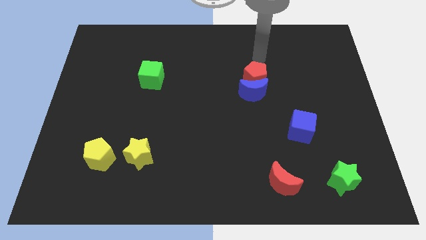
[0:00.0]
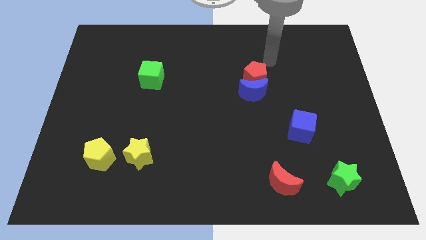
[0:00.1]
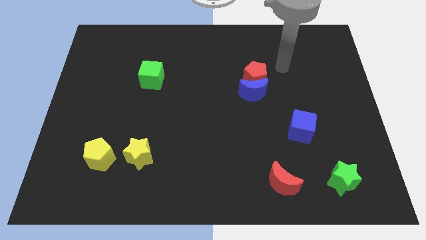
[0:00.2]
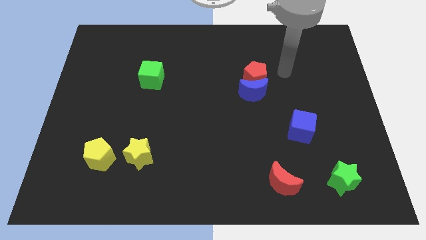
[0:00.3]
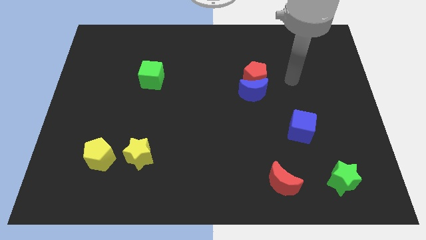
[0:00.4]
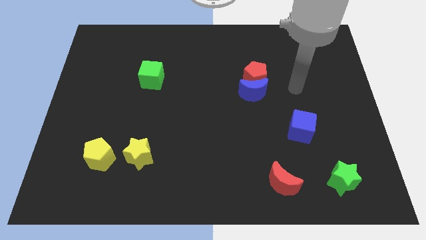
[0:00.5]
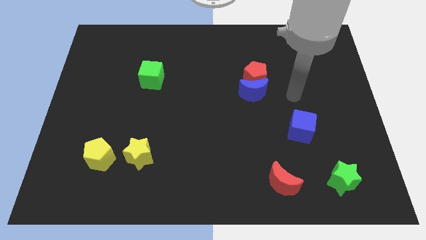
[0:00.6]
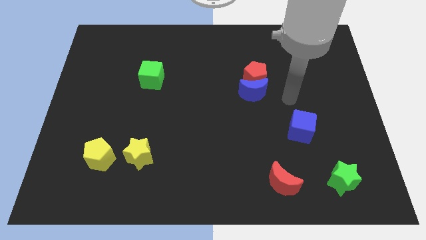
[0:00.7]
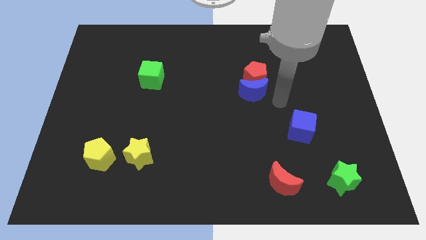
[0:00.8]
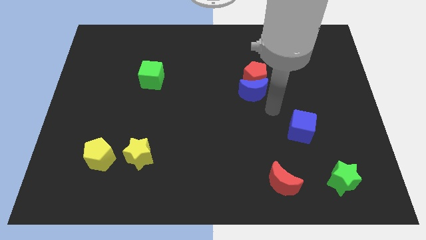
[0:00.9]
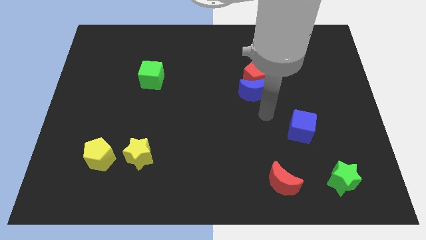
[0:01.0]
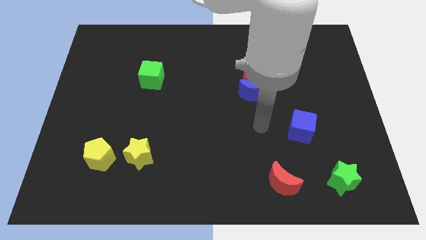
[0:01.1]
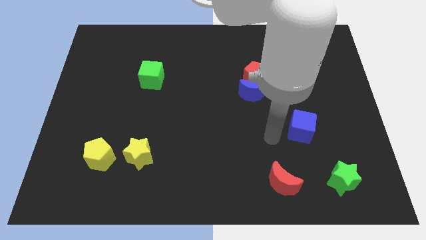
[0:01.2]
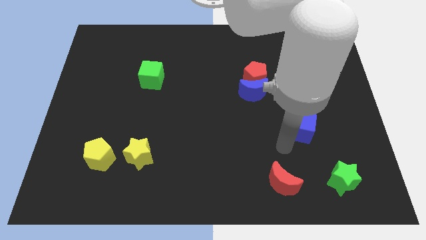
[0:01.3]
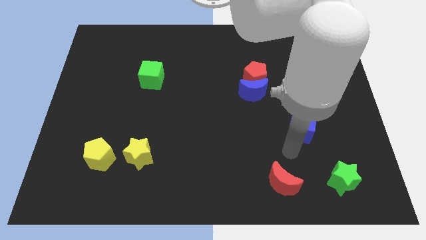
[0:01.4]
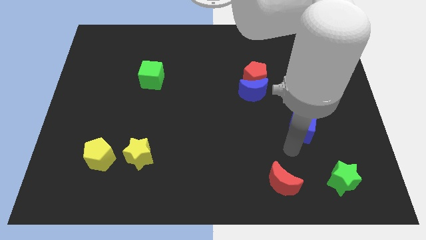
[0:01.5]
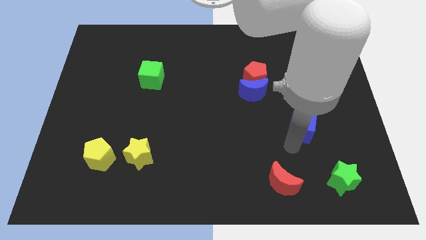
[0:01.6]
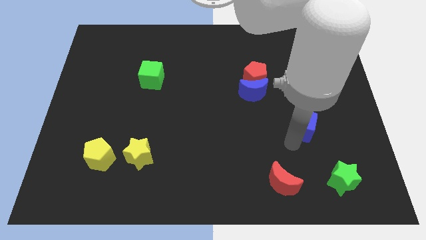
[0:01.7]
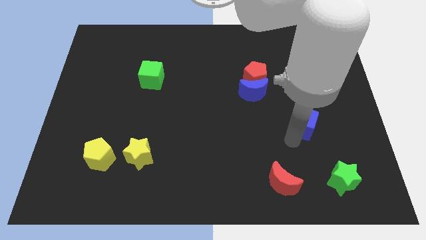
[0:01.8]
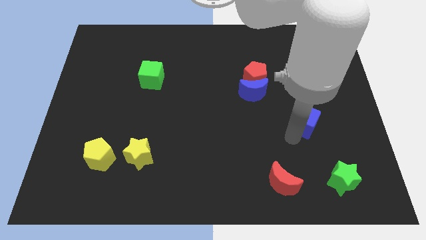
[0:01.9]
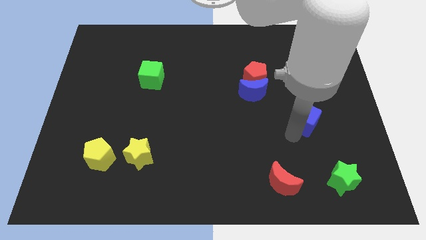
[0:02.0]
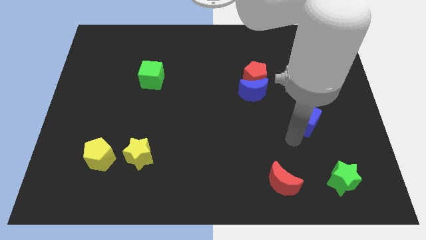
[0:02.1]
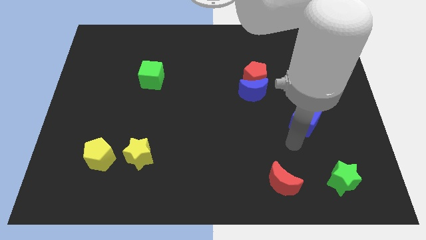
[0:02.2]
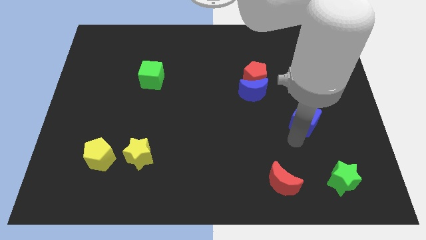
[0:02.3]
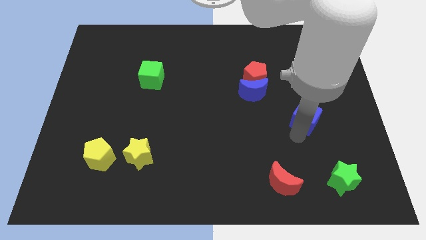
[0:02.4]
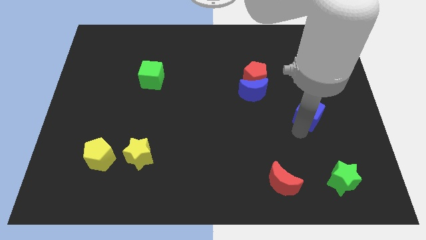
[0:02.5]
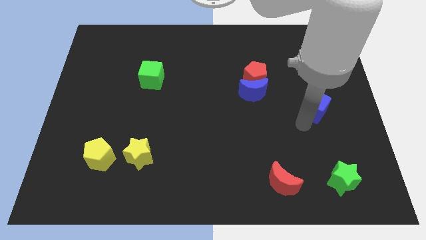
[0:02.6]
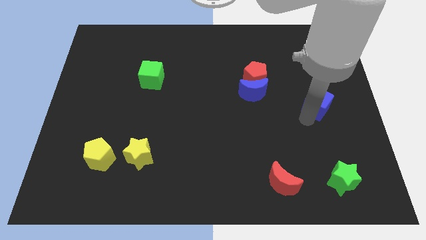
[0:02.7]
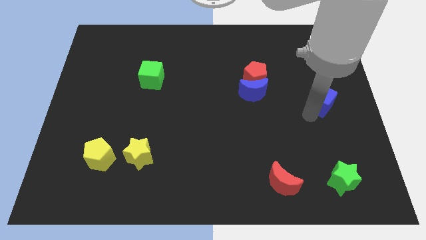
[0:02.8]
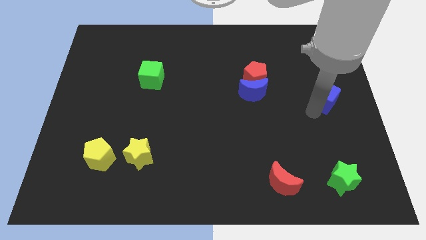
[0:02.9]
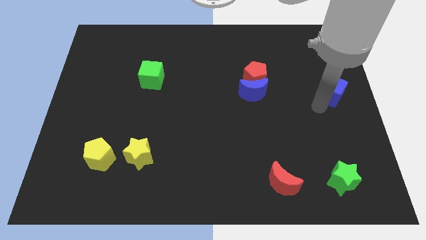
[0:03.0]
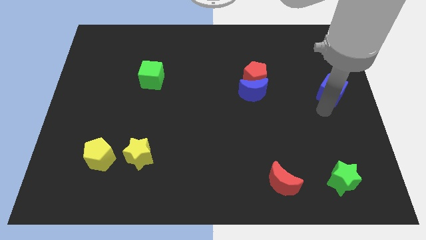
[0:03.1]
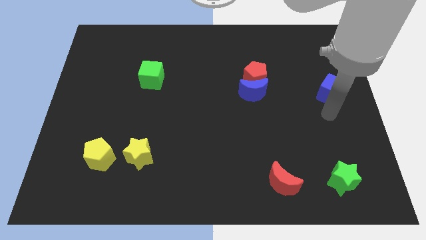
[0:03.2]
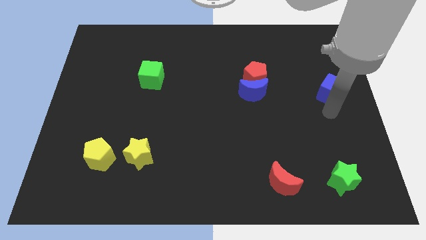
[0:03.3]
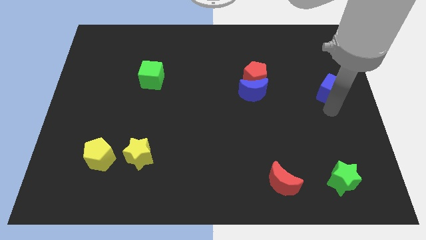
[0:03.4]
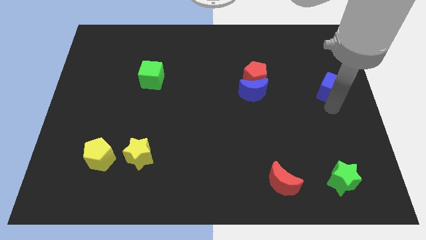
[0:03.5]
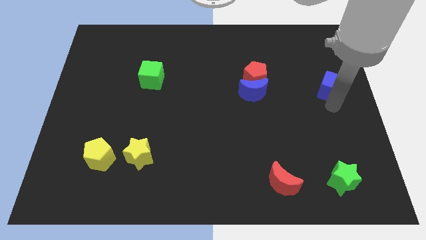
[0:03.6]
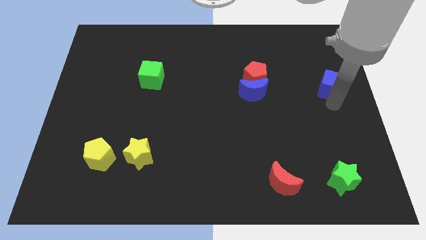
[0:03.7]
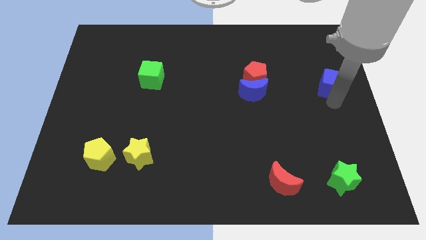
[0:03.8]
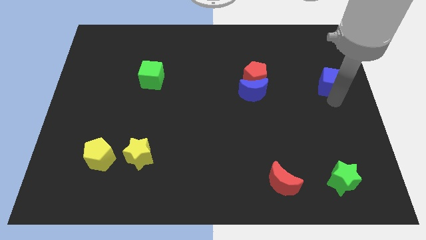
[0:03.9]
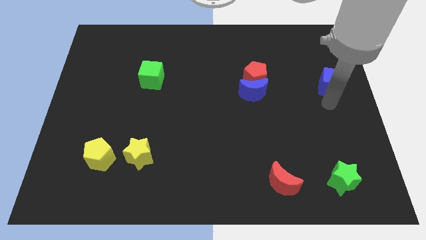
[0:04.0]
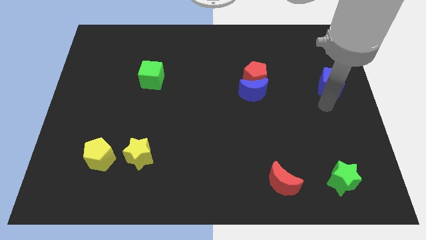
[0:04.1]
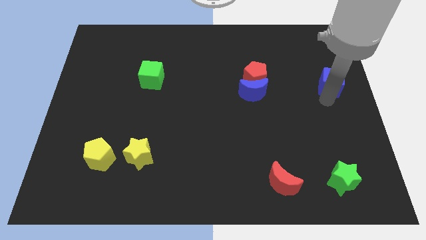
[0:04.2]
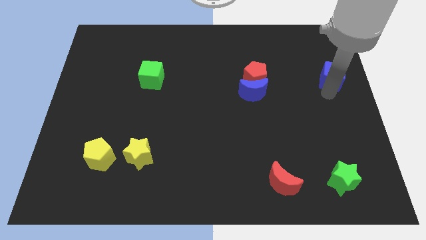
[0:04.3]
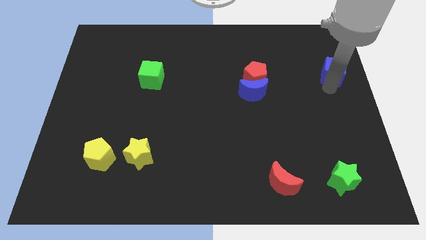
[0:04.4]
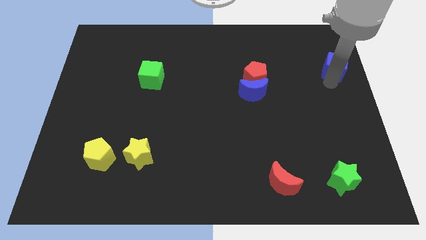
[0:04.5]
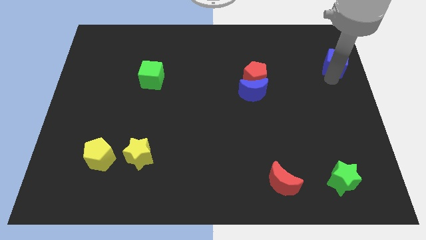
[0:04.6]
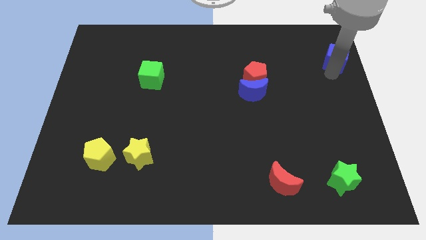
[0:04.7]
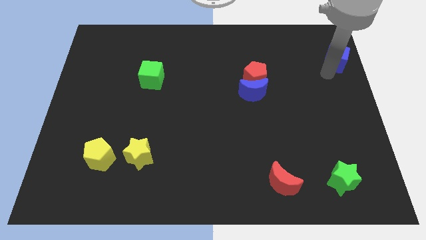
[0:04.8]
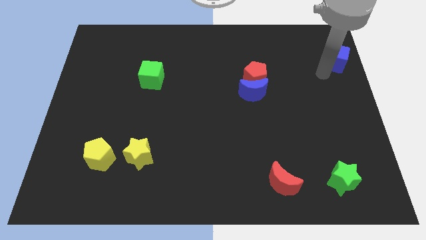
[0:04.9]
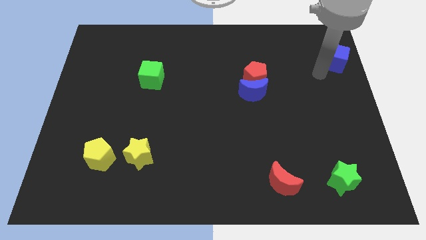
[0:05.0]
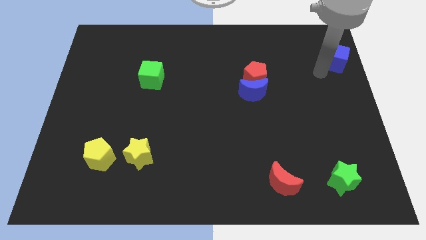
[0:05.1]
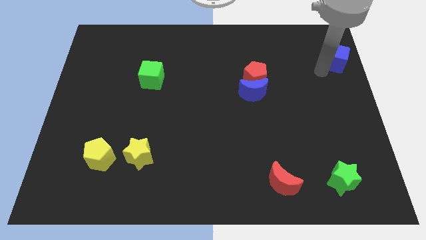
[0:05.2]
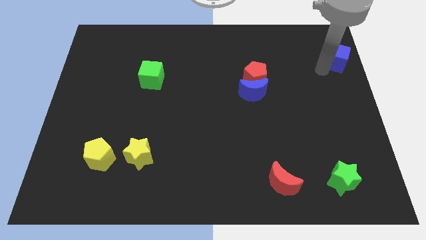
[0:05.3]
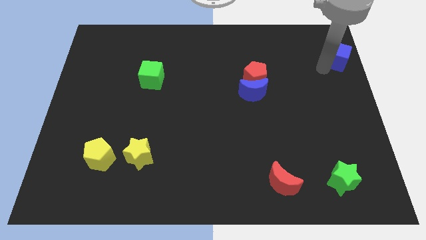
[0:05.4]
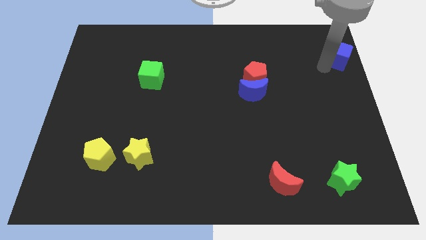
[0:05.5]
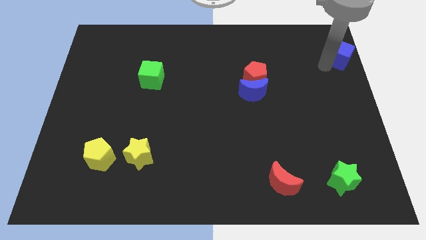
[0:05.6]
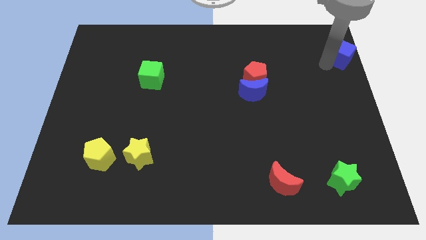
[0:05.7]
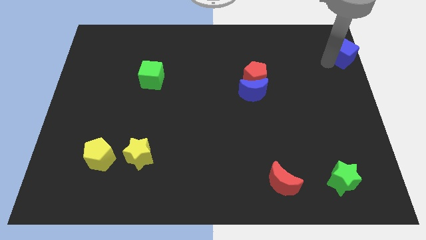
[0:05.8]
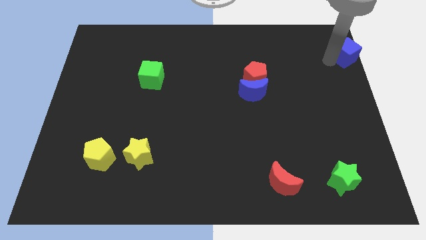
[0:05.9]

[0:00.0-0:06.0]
slide the blue cube to the upper right corner

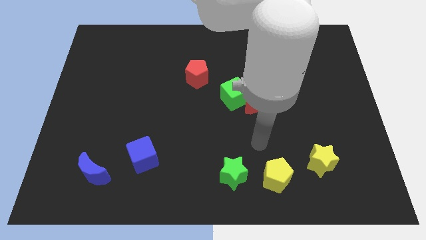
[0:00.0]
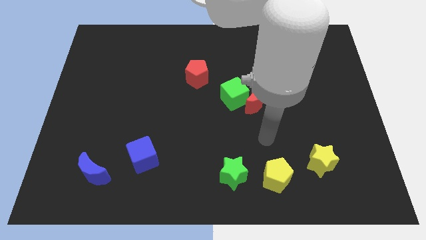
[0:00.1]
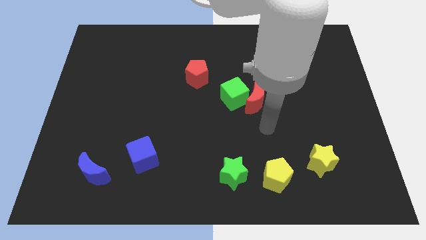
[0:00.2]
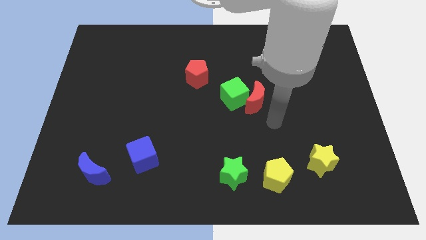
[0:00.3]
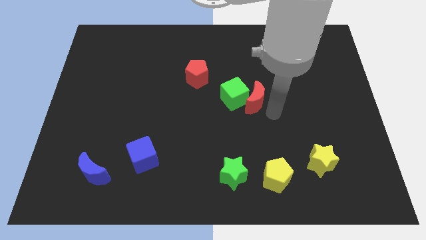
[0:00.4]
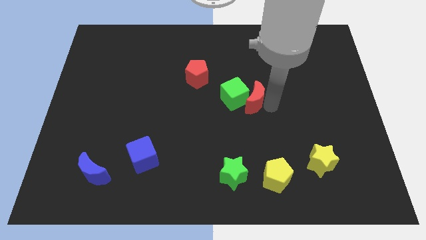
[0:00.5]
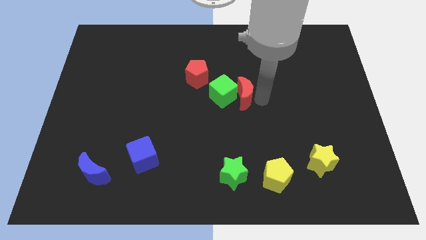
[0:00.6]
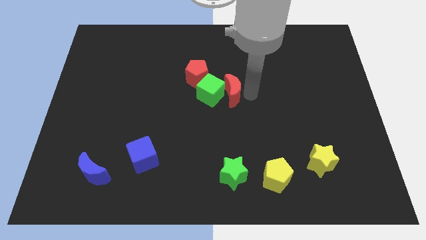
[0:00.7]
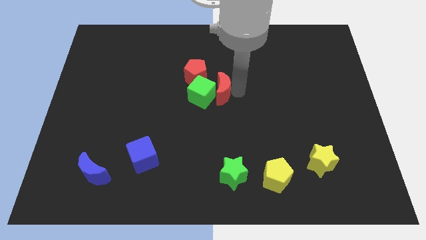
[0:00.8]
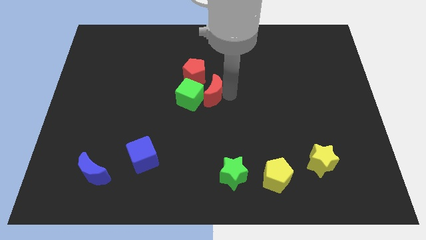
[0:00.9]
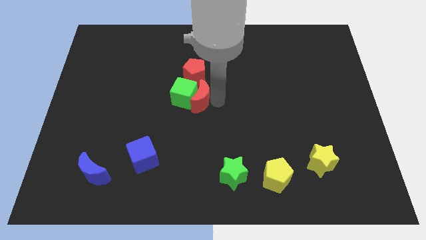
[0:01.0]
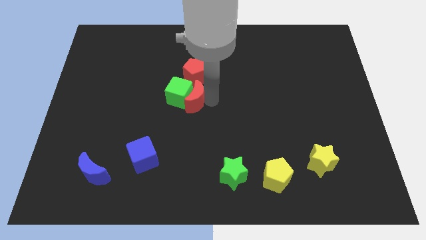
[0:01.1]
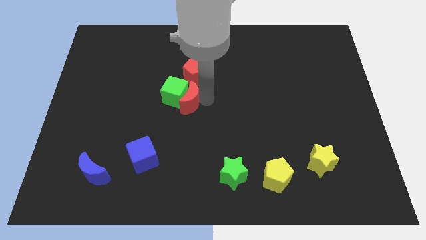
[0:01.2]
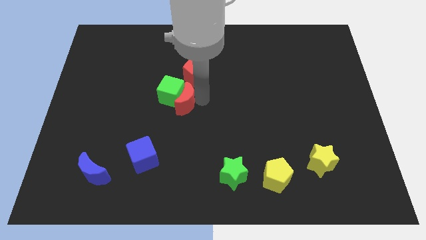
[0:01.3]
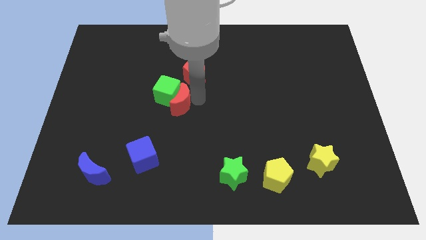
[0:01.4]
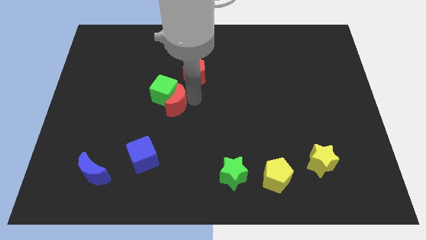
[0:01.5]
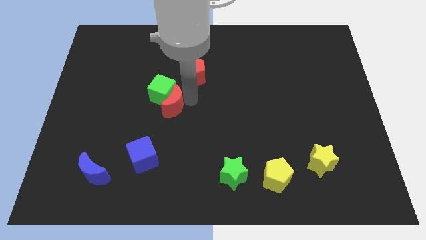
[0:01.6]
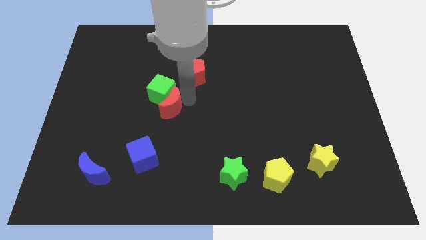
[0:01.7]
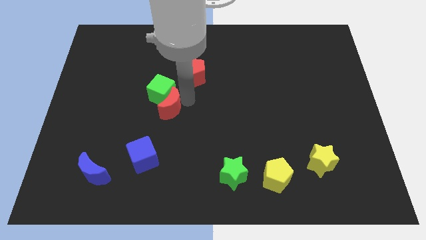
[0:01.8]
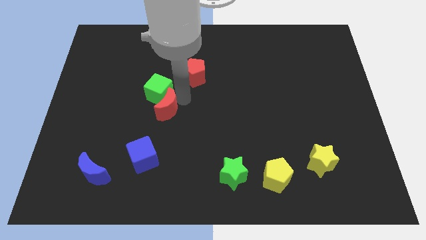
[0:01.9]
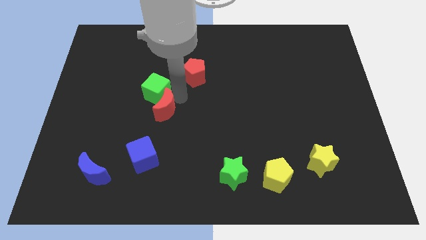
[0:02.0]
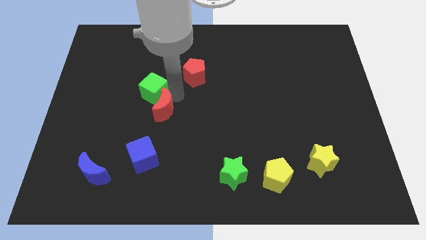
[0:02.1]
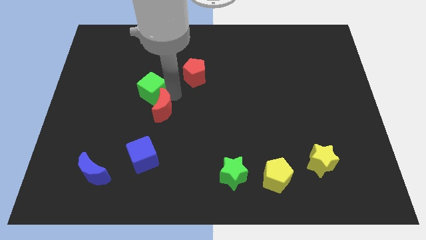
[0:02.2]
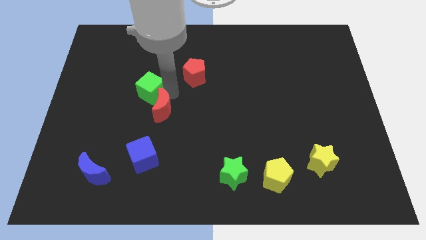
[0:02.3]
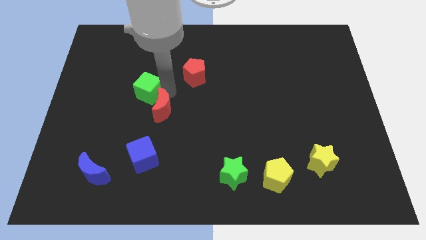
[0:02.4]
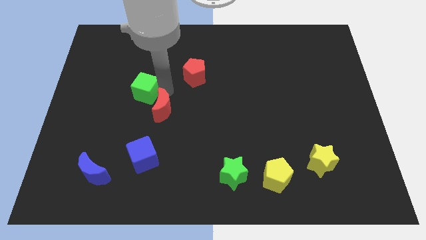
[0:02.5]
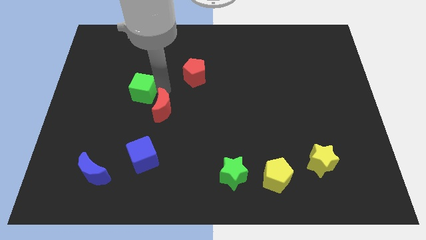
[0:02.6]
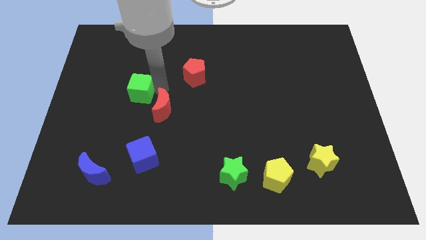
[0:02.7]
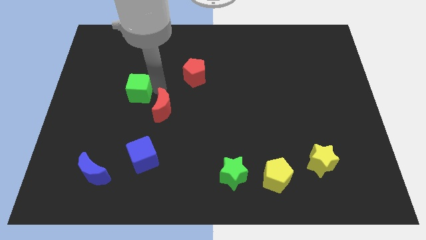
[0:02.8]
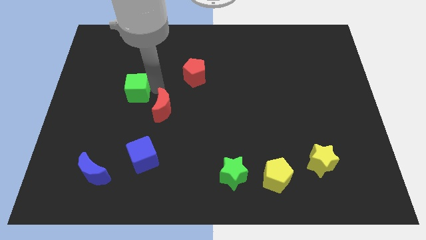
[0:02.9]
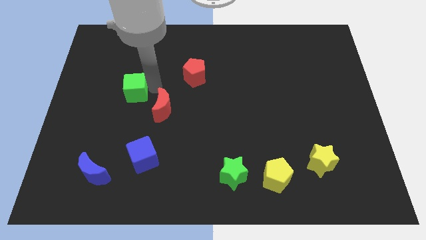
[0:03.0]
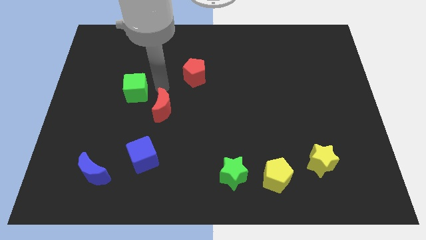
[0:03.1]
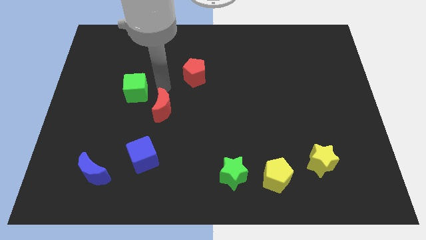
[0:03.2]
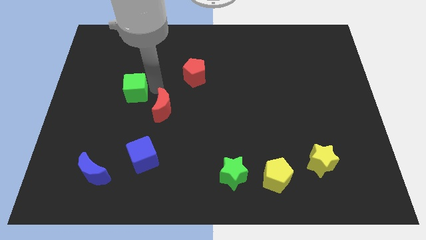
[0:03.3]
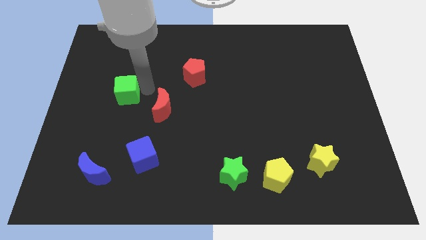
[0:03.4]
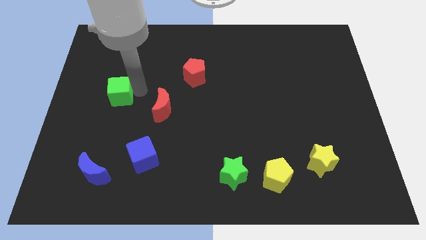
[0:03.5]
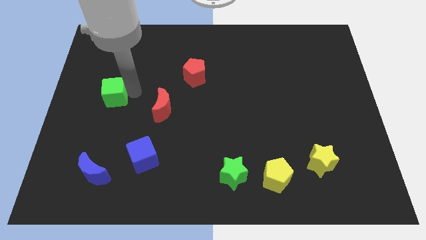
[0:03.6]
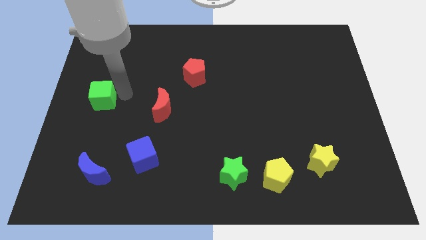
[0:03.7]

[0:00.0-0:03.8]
slide the green cube to the left side
